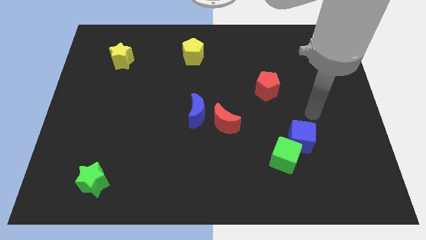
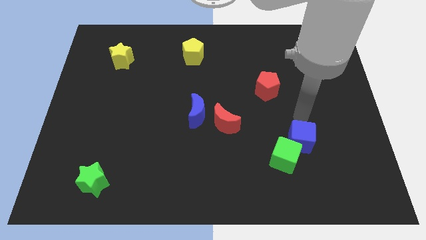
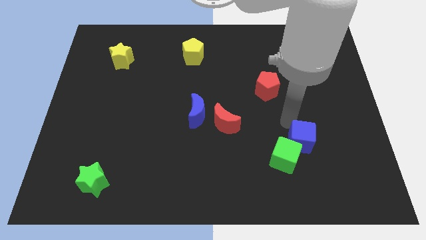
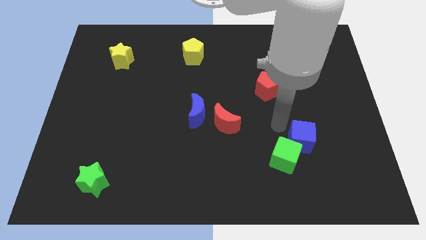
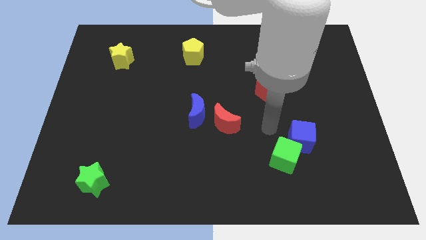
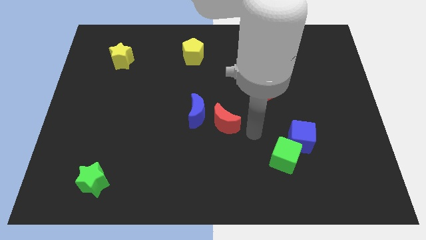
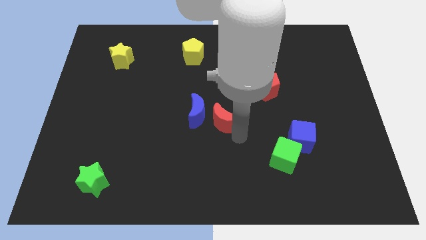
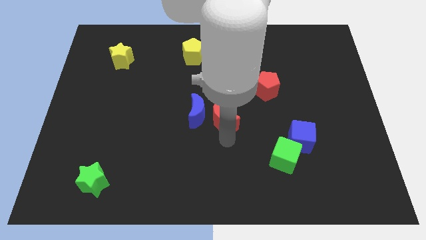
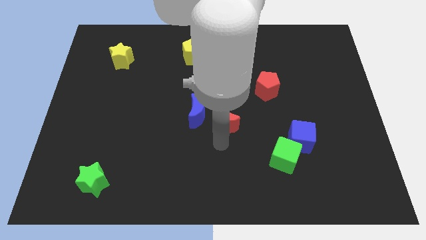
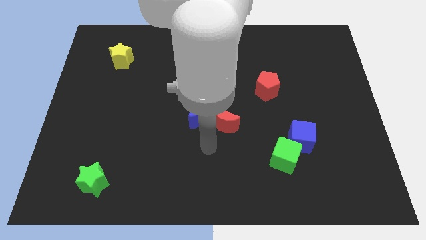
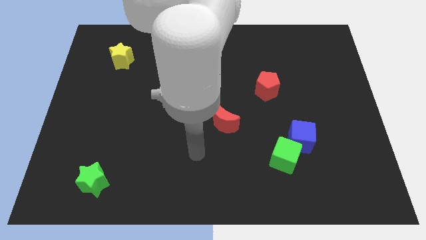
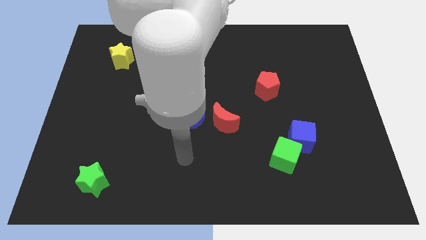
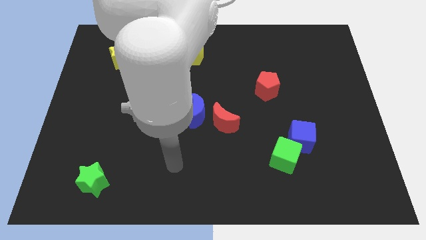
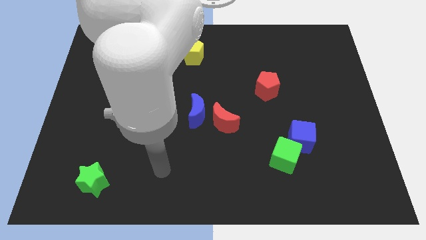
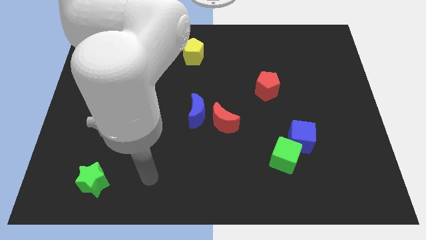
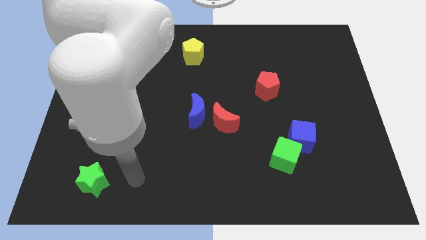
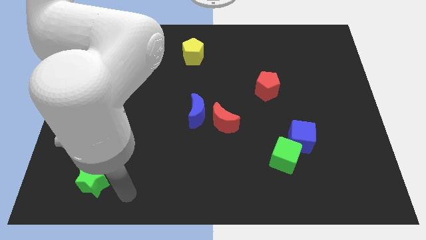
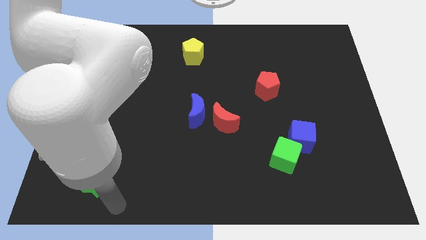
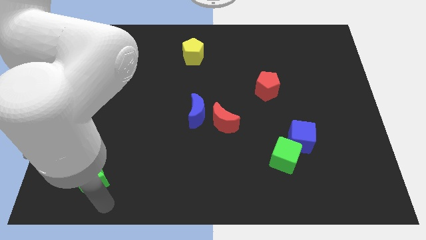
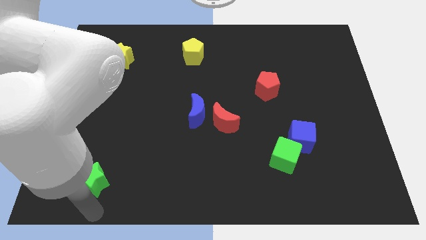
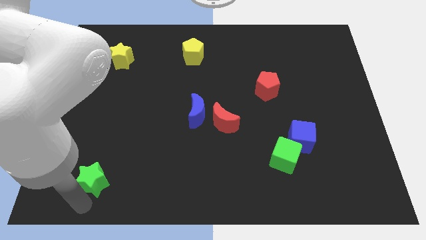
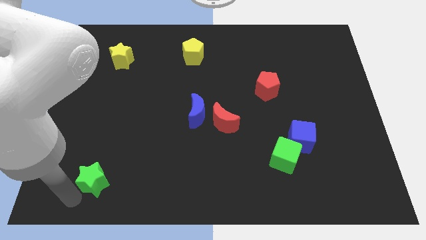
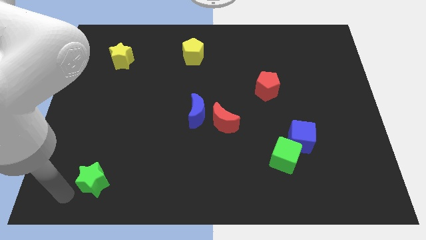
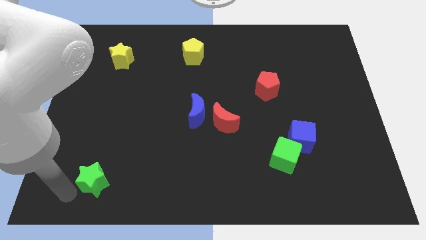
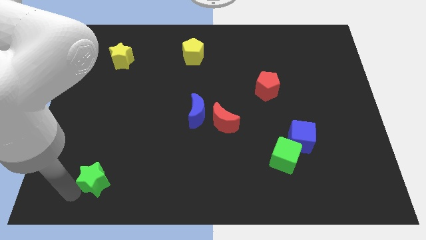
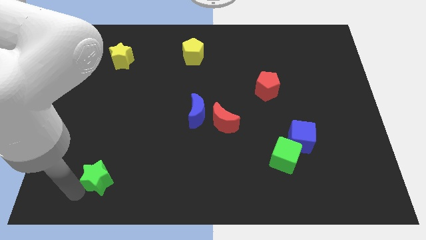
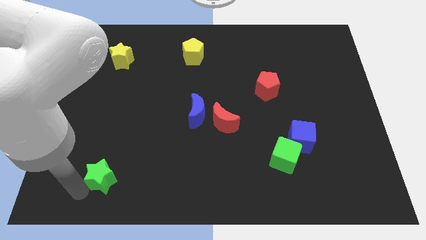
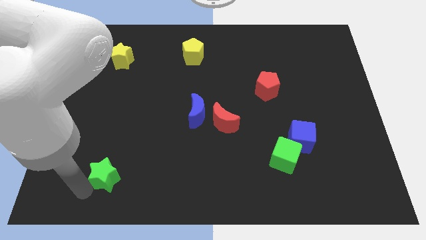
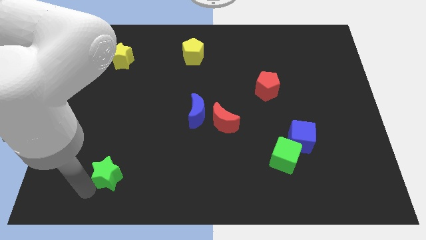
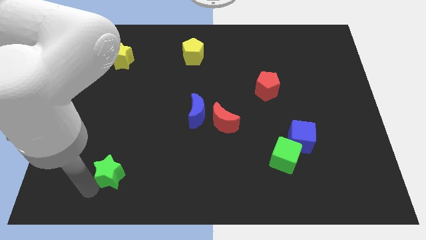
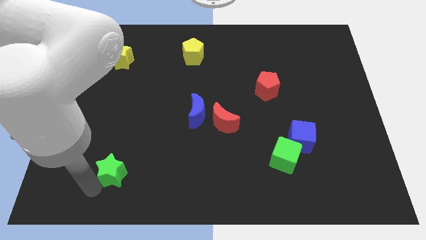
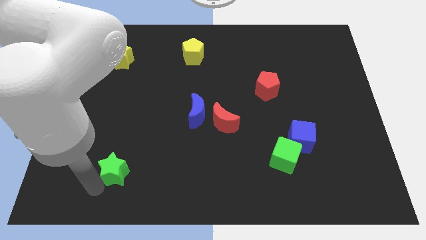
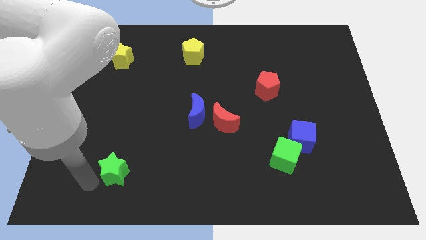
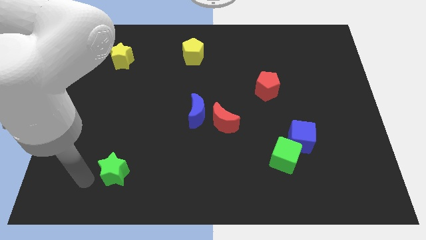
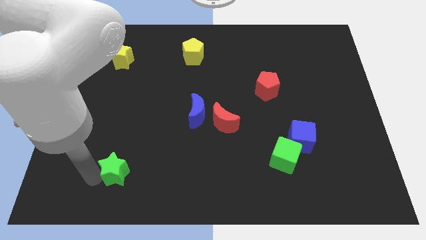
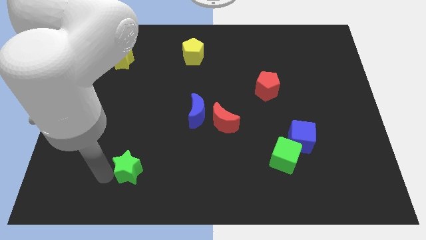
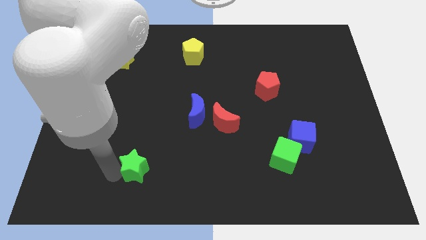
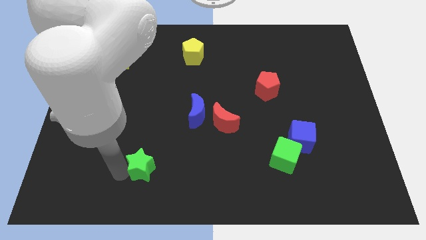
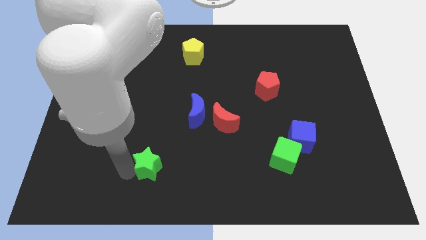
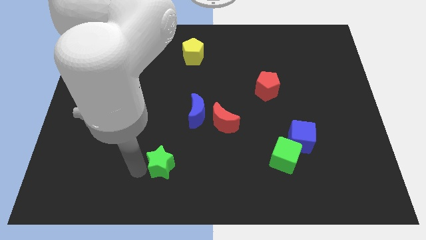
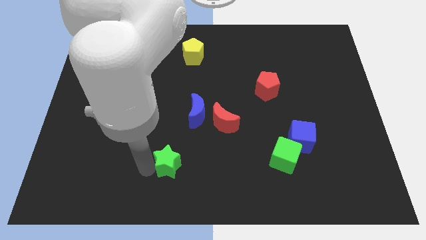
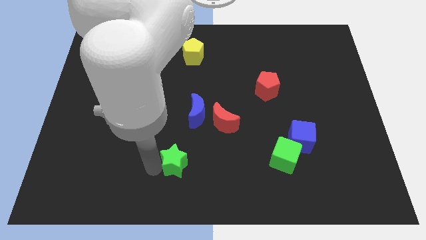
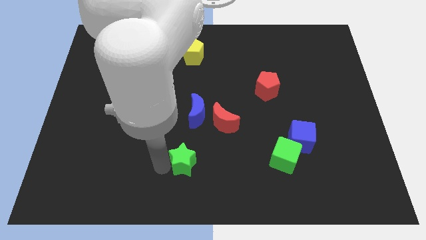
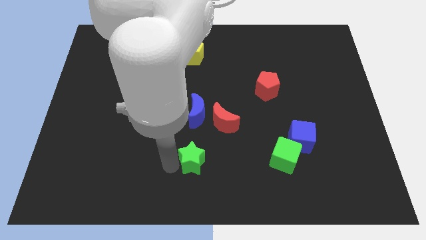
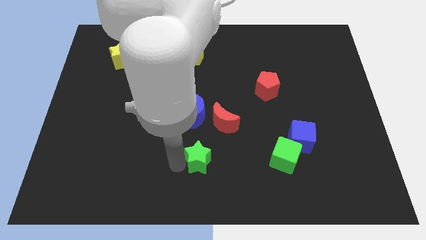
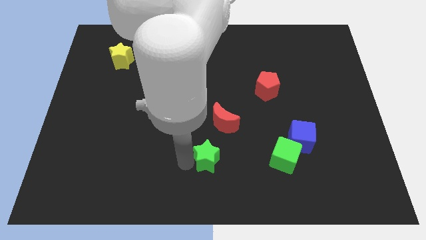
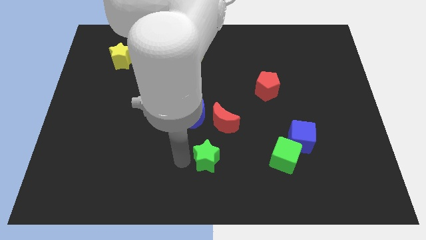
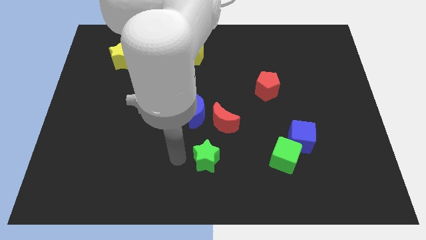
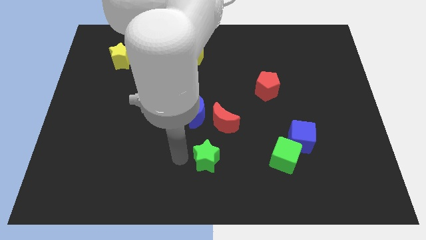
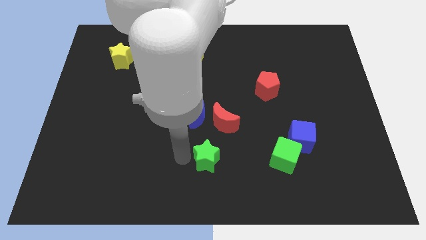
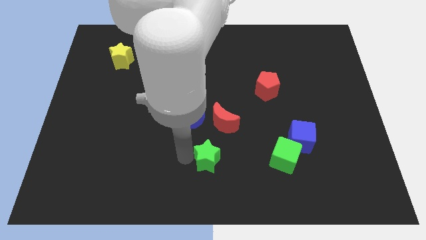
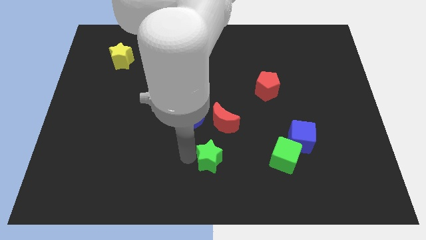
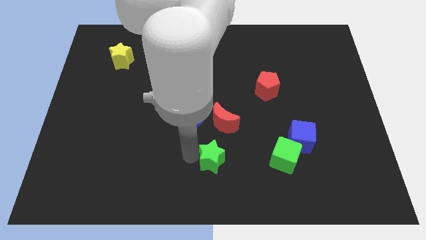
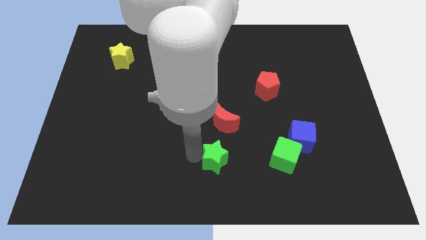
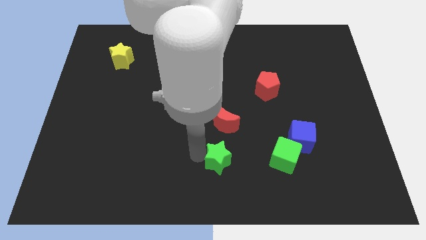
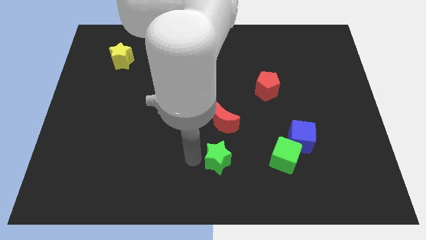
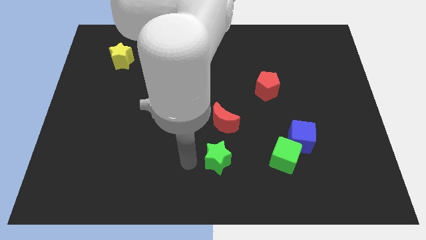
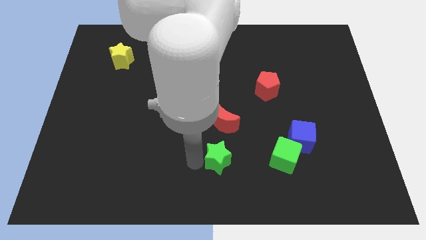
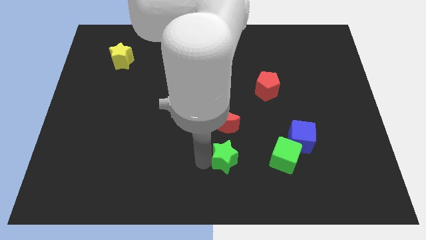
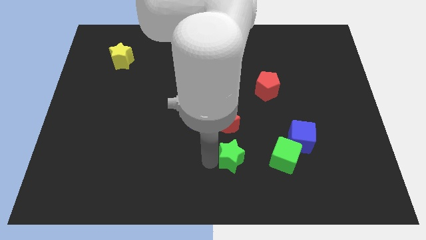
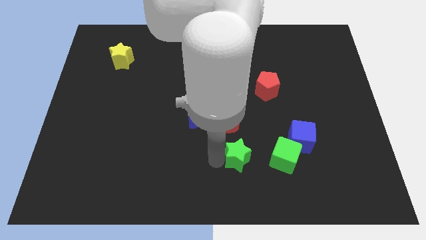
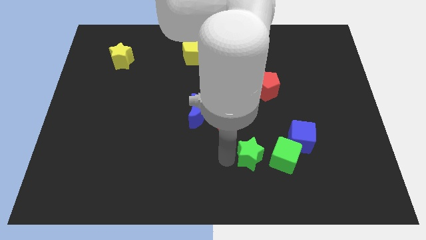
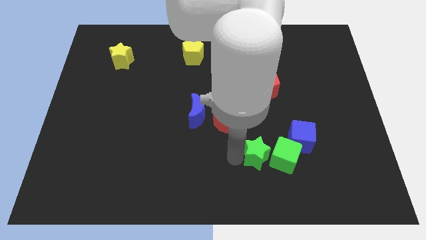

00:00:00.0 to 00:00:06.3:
slide the green star close to the green cube

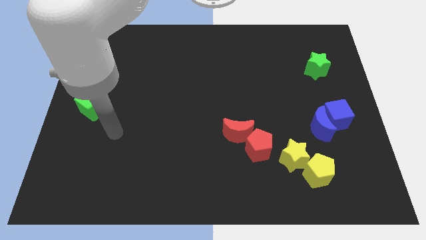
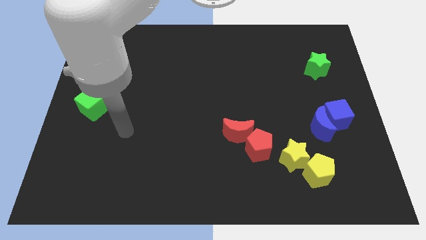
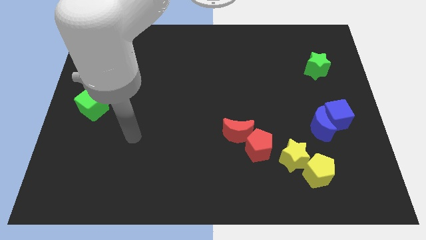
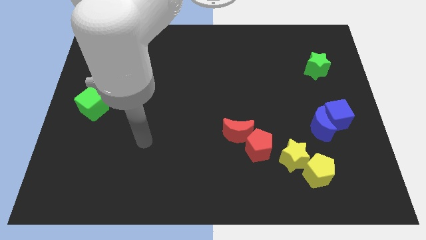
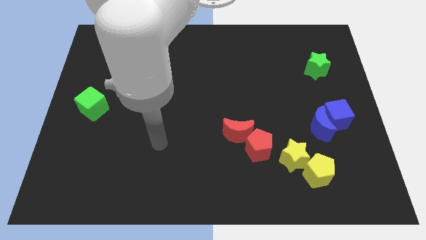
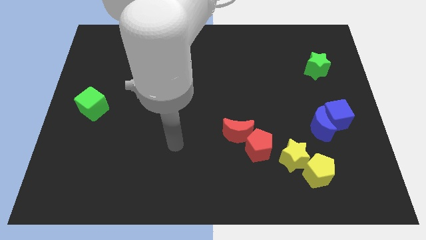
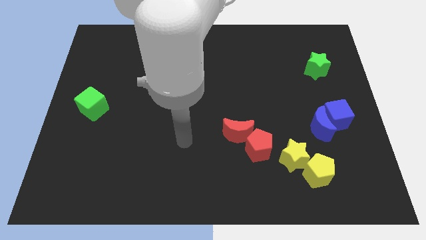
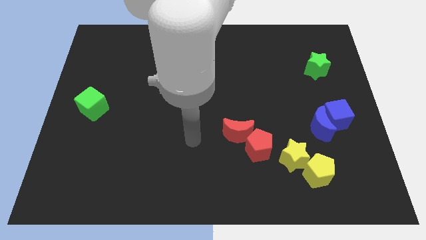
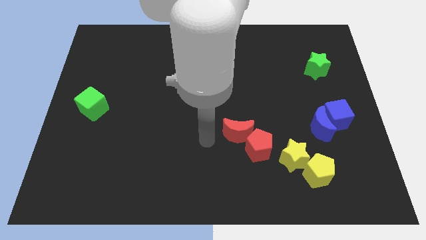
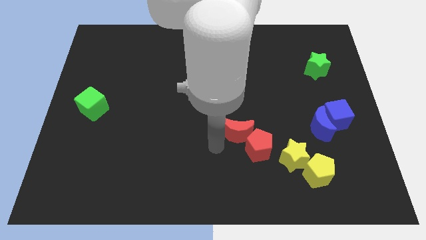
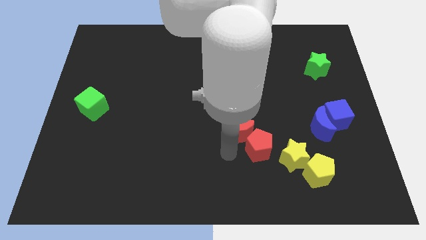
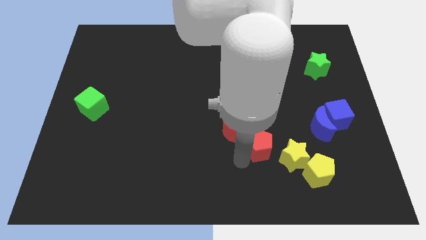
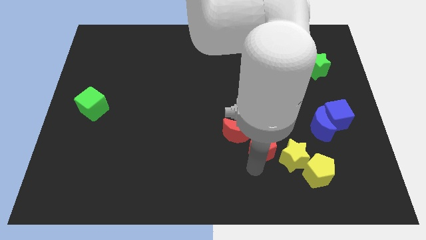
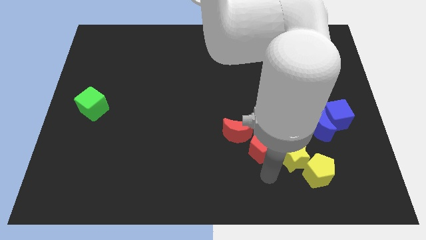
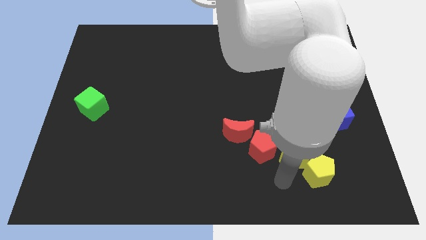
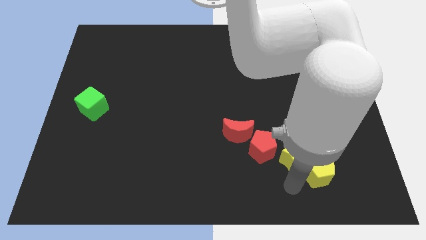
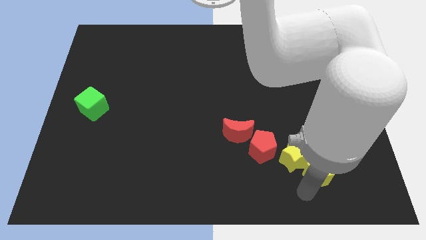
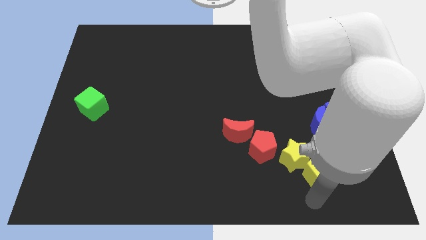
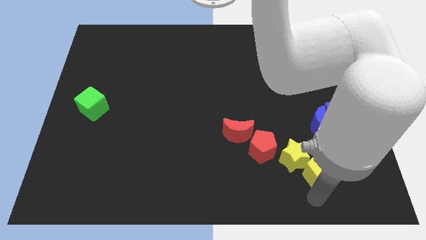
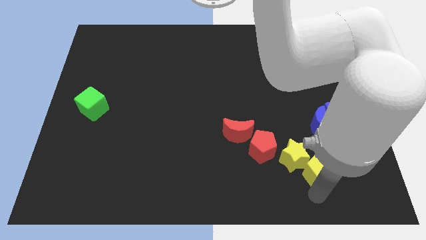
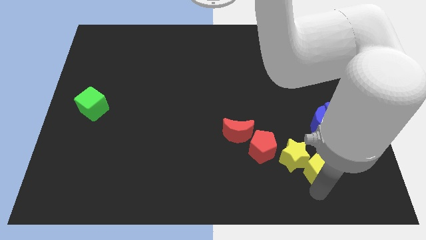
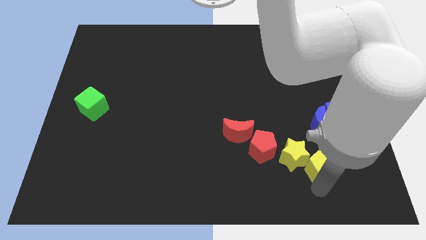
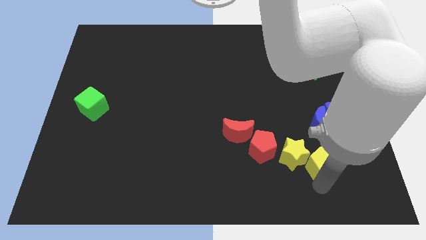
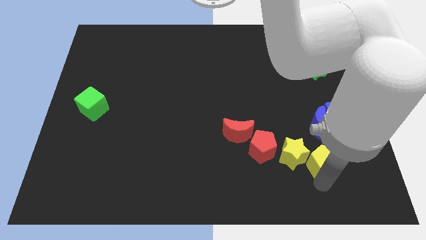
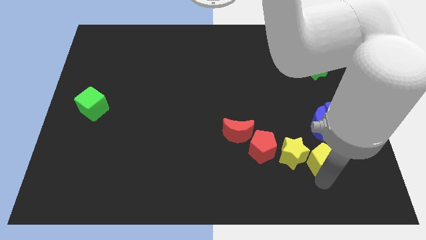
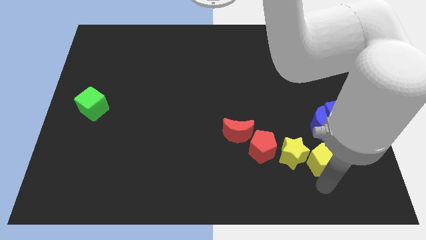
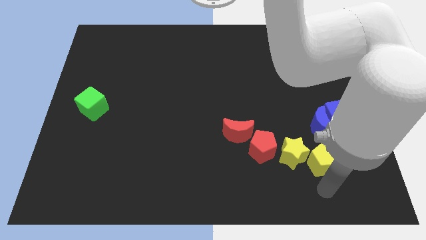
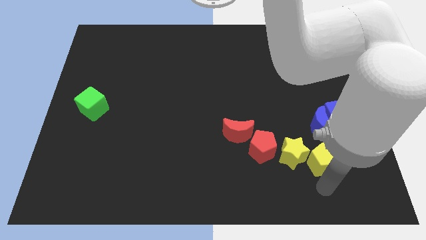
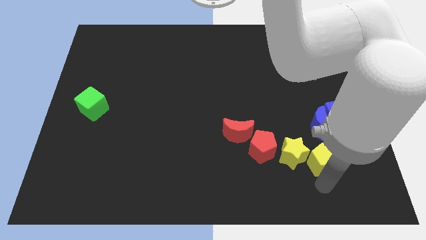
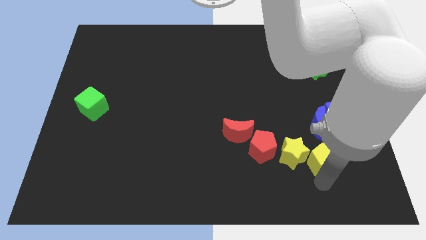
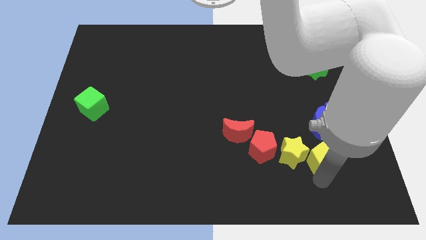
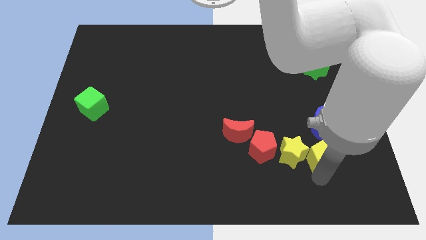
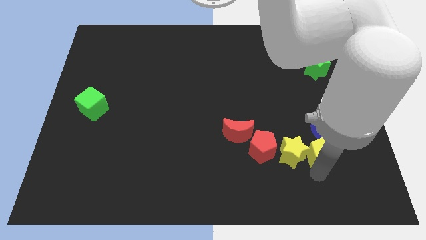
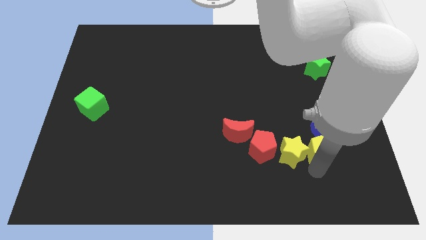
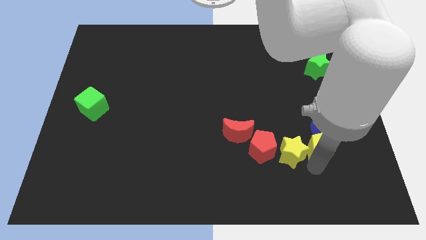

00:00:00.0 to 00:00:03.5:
push the yellow pentagon close to the blue moon
